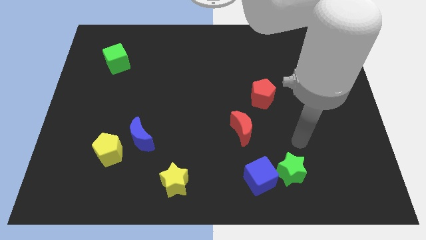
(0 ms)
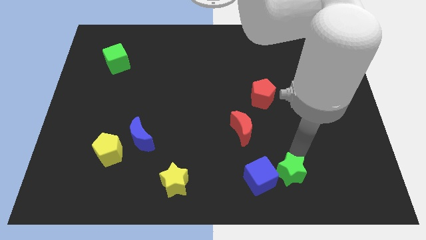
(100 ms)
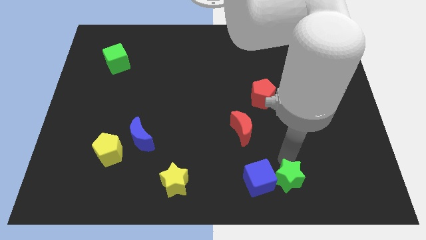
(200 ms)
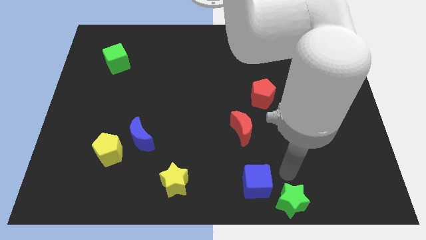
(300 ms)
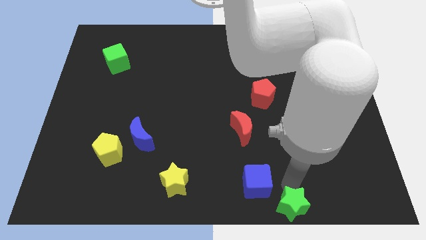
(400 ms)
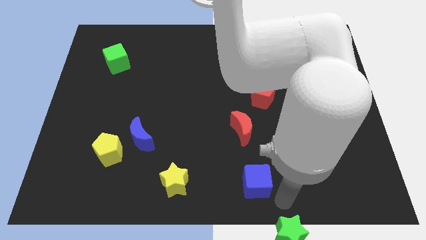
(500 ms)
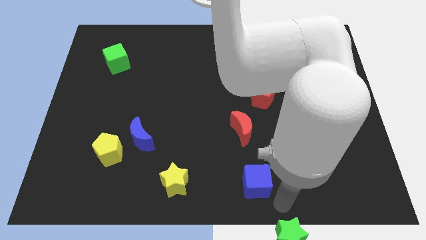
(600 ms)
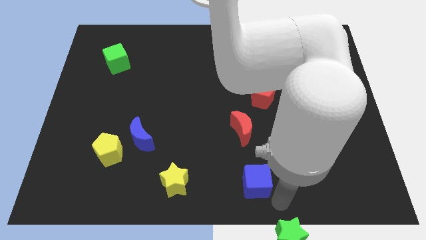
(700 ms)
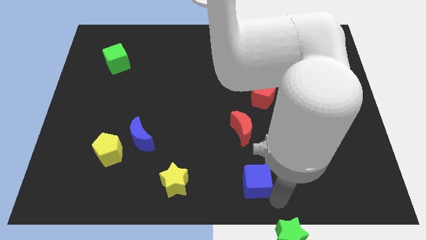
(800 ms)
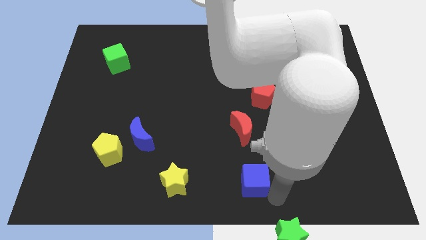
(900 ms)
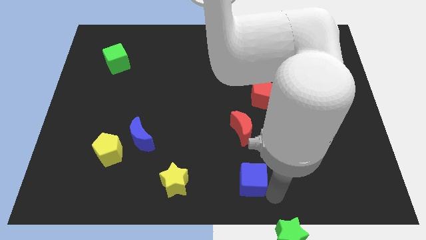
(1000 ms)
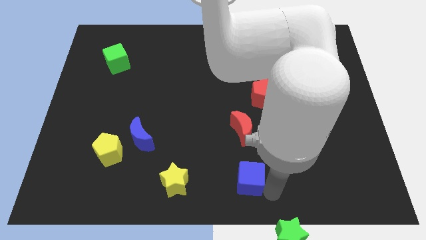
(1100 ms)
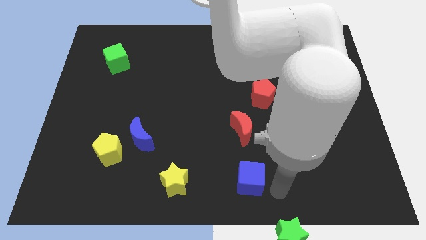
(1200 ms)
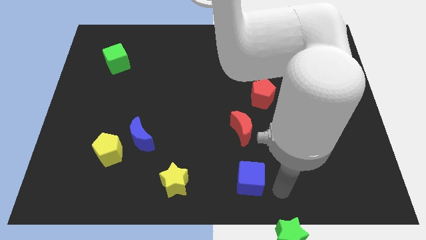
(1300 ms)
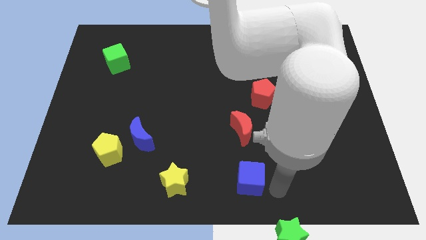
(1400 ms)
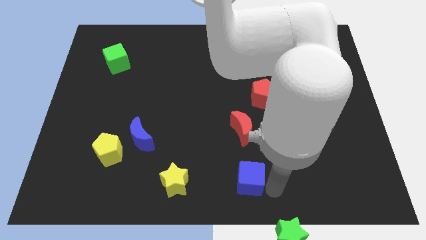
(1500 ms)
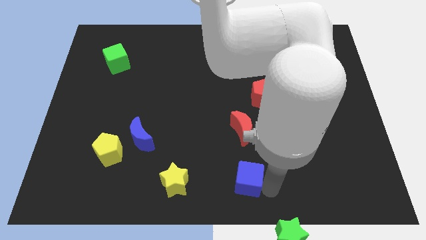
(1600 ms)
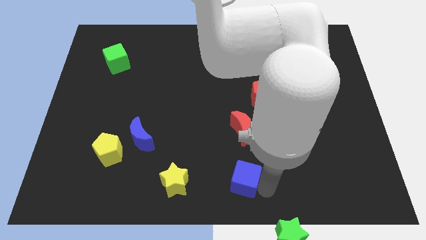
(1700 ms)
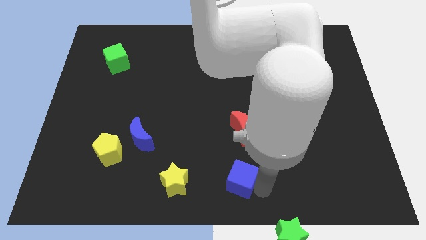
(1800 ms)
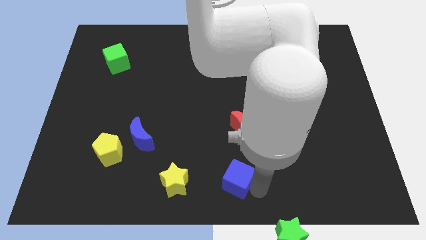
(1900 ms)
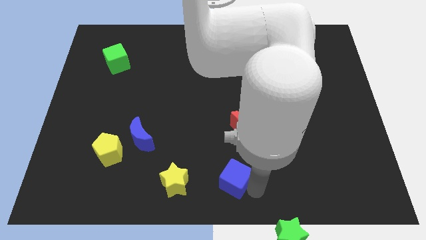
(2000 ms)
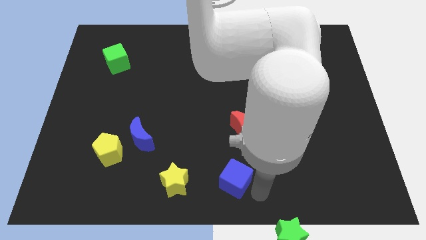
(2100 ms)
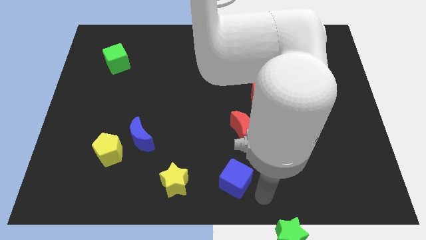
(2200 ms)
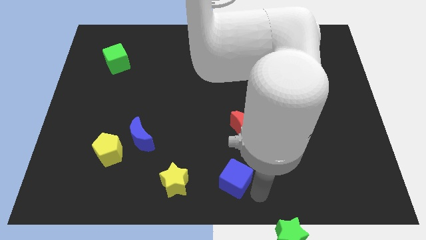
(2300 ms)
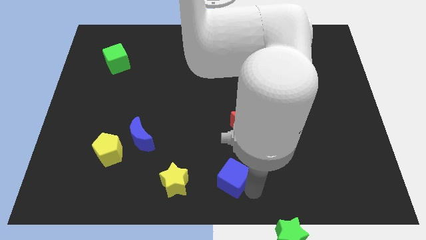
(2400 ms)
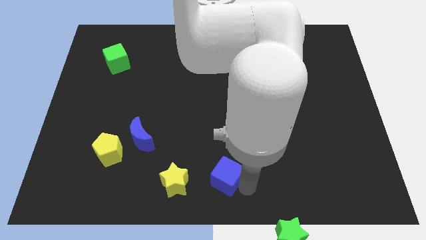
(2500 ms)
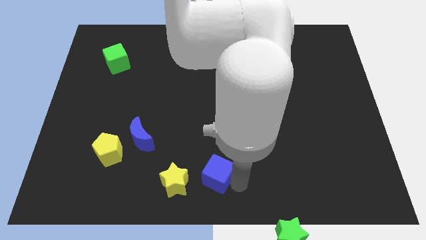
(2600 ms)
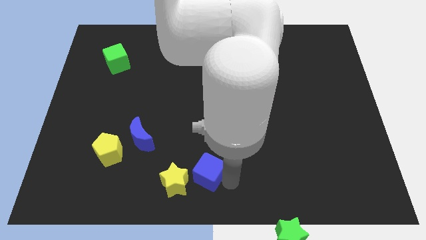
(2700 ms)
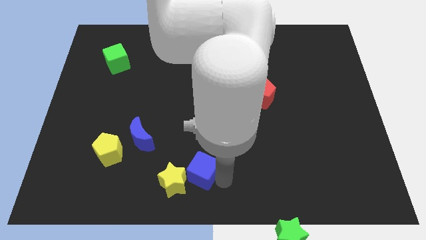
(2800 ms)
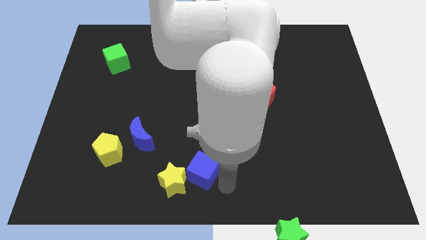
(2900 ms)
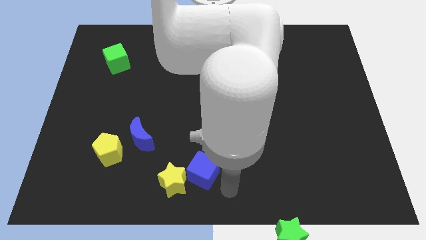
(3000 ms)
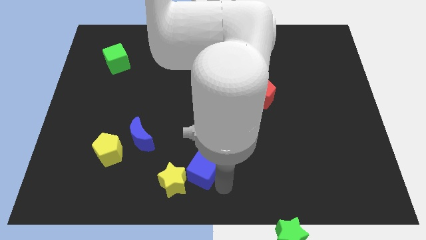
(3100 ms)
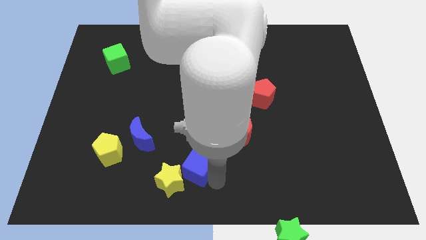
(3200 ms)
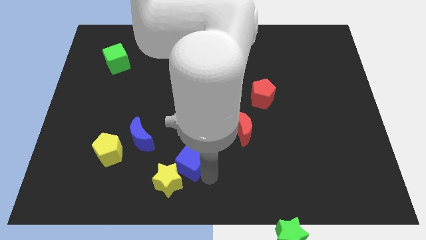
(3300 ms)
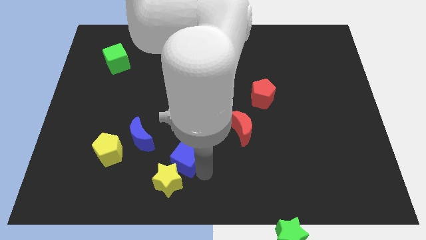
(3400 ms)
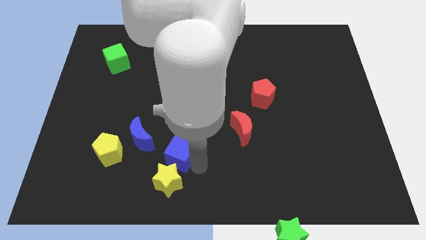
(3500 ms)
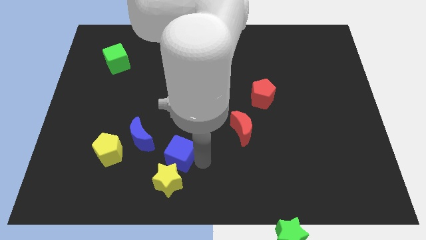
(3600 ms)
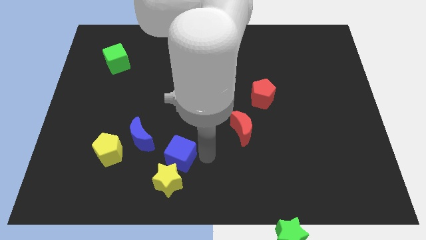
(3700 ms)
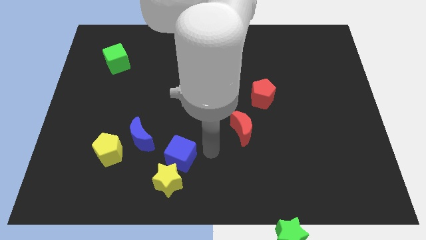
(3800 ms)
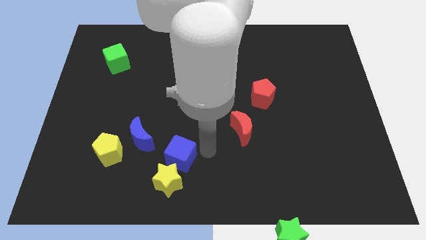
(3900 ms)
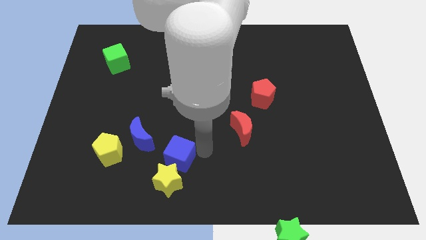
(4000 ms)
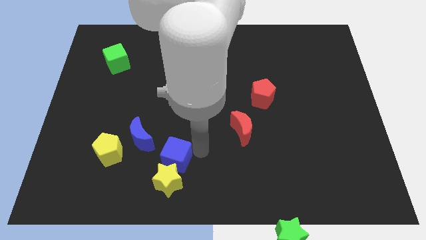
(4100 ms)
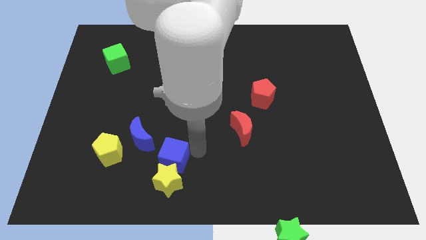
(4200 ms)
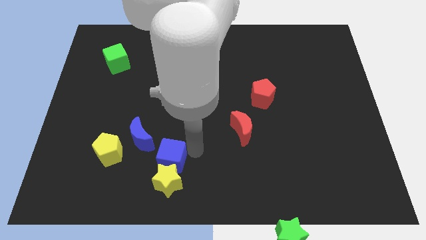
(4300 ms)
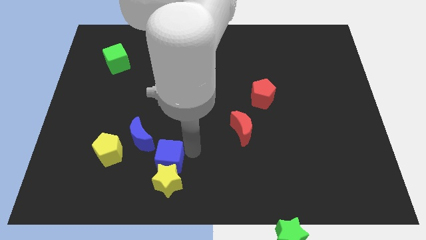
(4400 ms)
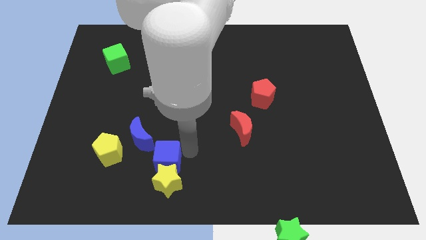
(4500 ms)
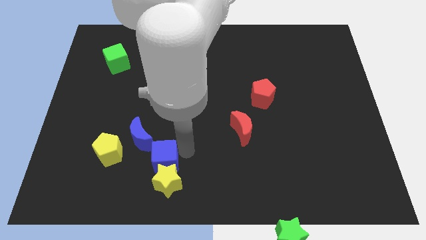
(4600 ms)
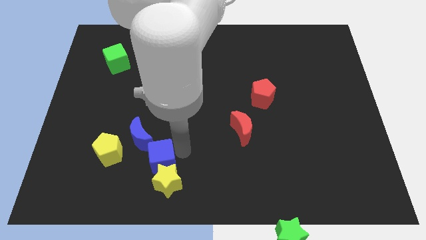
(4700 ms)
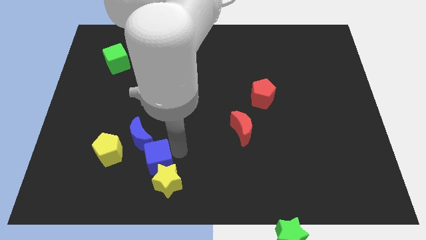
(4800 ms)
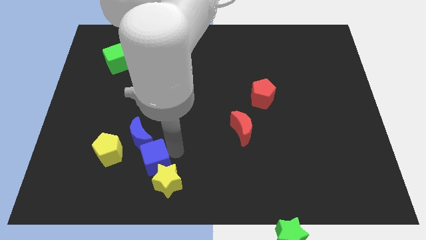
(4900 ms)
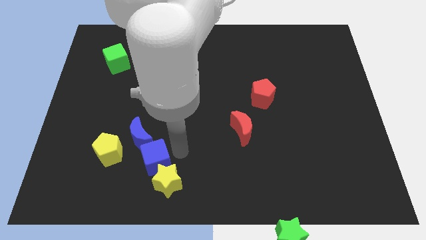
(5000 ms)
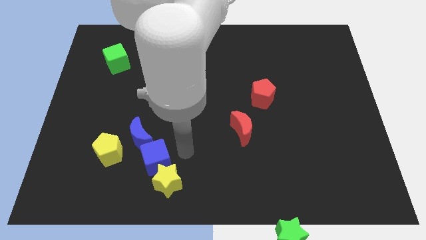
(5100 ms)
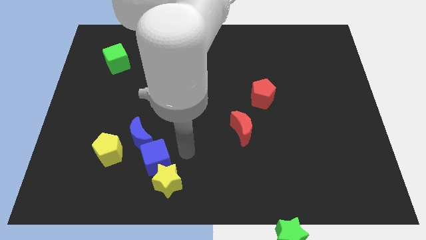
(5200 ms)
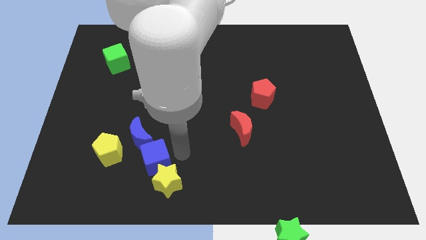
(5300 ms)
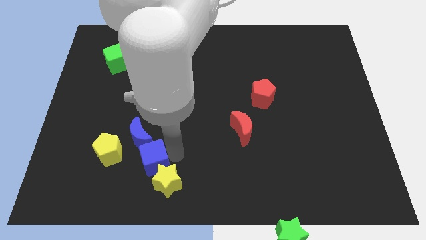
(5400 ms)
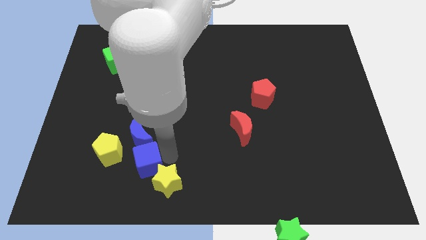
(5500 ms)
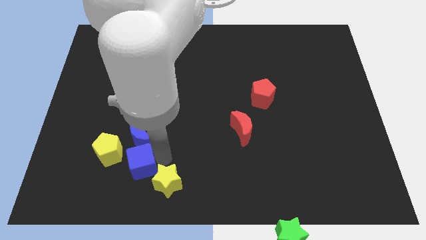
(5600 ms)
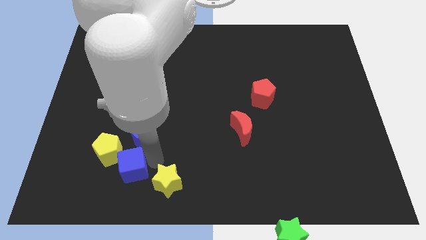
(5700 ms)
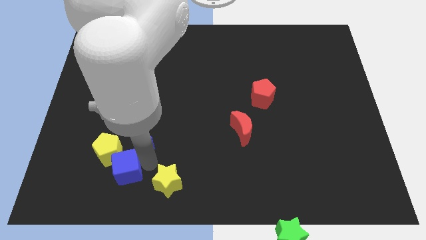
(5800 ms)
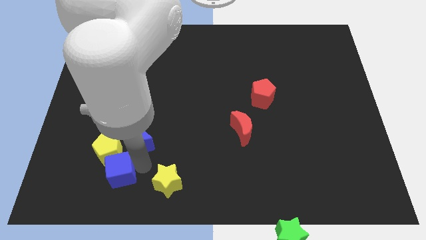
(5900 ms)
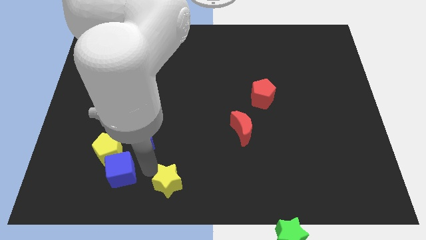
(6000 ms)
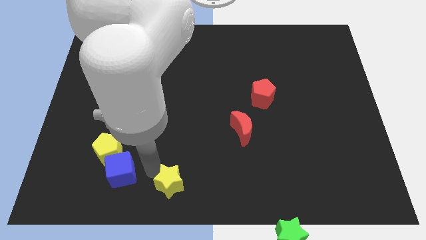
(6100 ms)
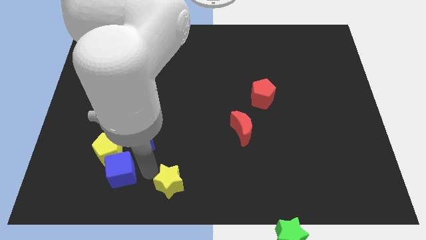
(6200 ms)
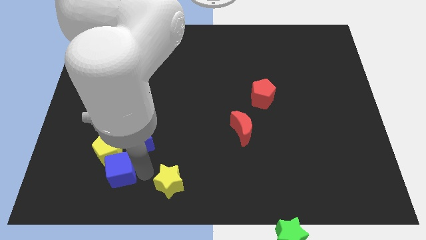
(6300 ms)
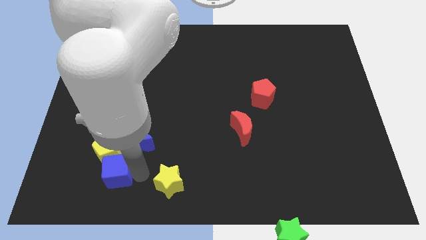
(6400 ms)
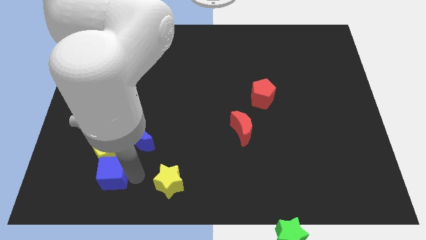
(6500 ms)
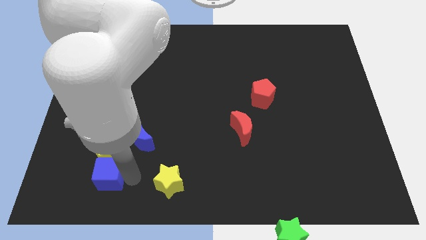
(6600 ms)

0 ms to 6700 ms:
slide the blue cube diagonally down and to the left of the yellow pentagon

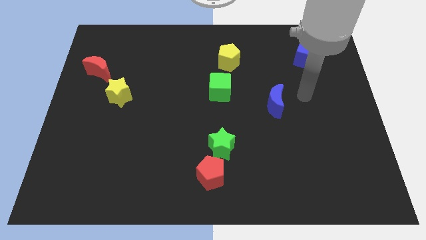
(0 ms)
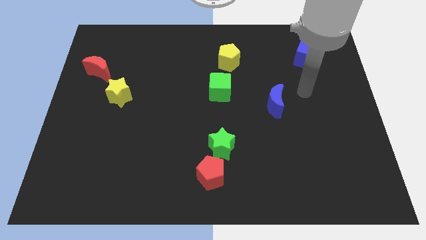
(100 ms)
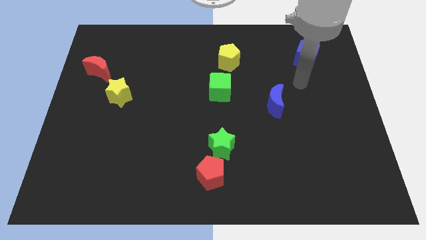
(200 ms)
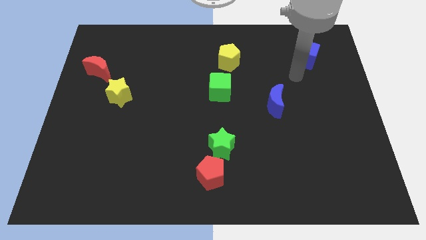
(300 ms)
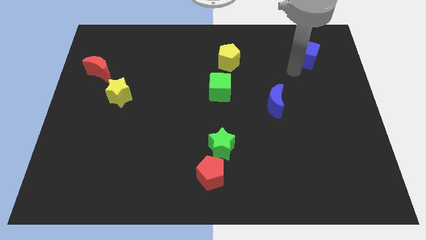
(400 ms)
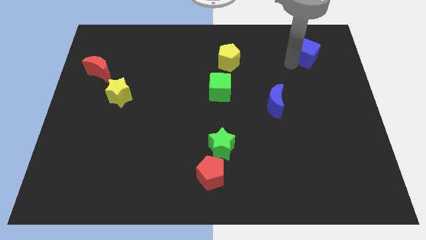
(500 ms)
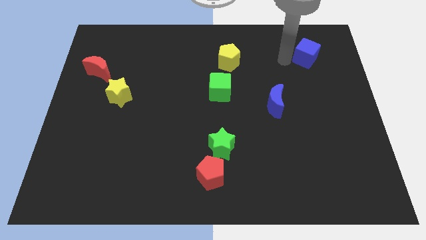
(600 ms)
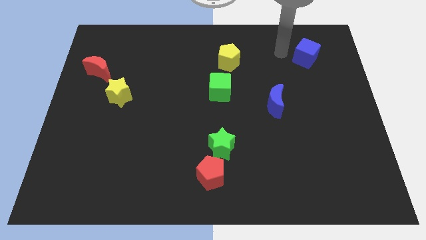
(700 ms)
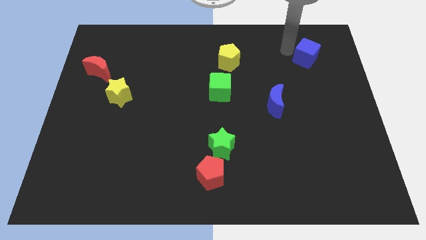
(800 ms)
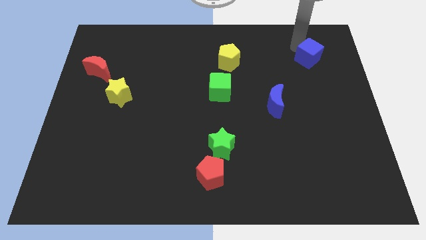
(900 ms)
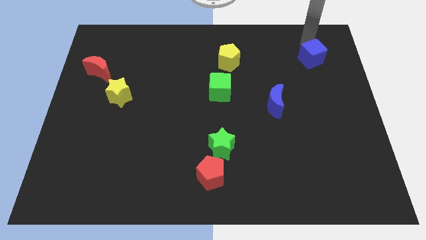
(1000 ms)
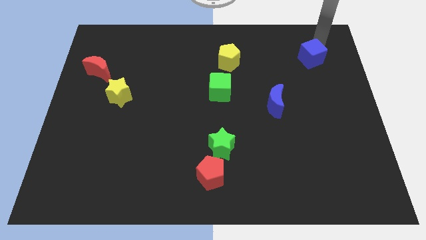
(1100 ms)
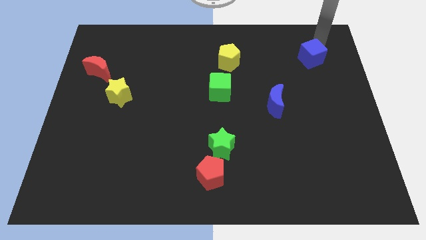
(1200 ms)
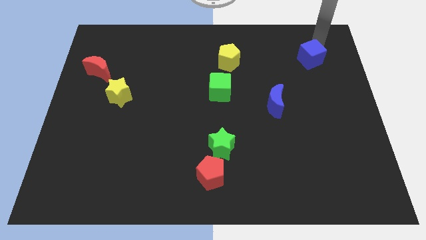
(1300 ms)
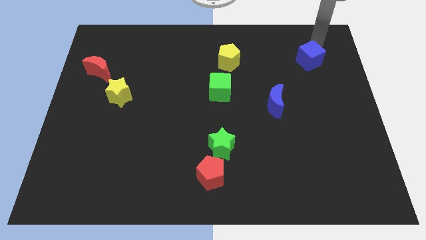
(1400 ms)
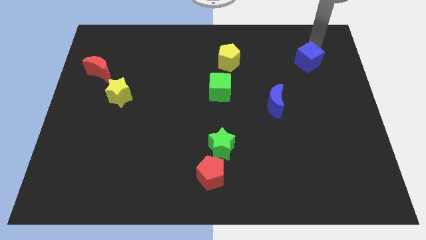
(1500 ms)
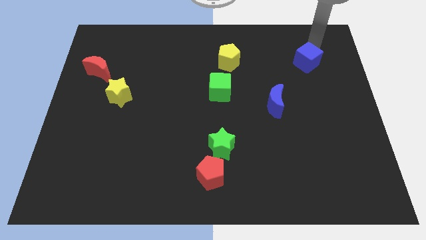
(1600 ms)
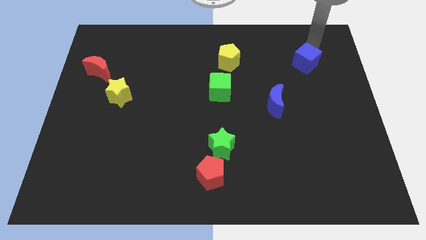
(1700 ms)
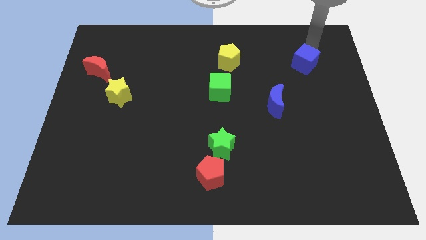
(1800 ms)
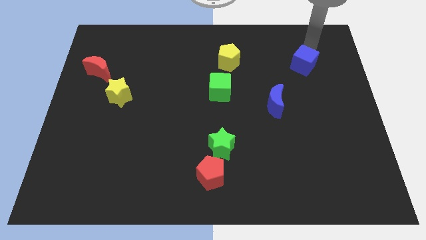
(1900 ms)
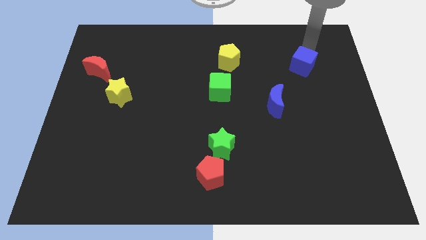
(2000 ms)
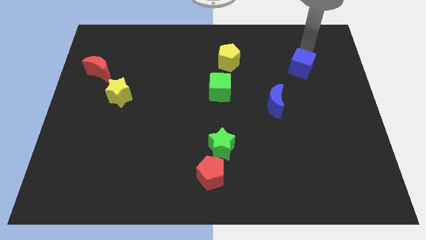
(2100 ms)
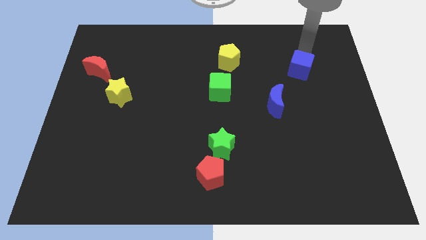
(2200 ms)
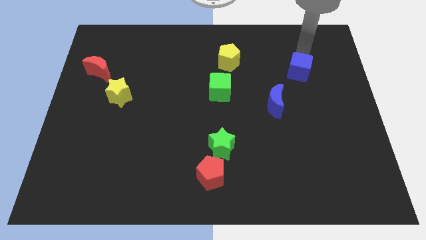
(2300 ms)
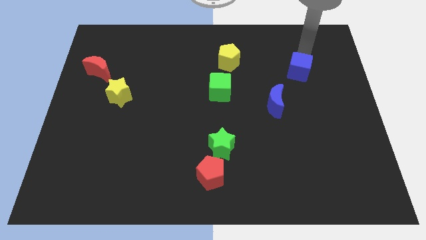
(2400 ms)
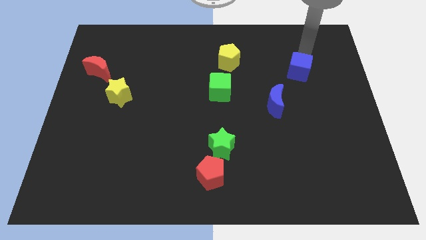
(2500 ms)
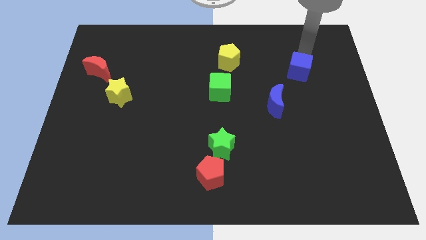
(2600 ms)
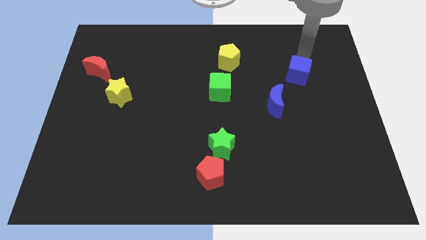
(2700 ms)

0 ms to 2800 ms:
slide the blue cube to the top right side of the blue moon
